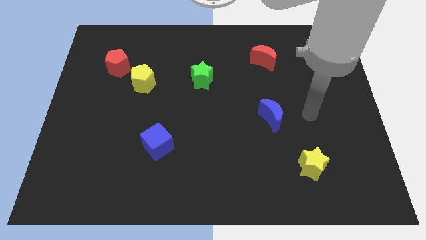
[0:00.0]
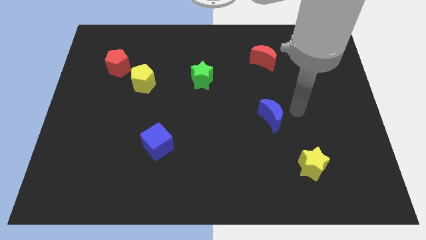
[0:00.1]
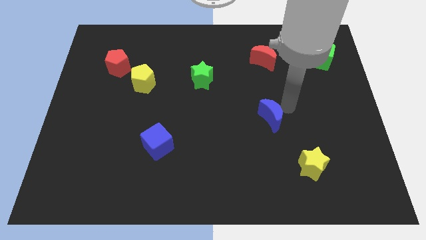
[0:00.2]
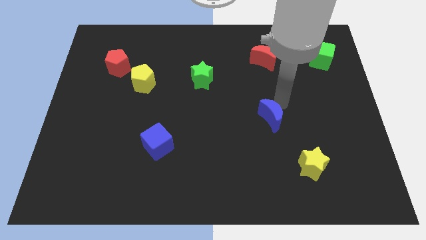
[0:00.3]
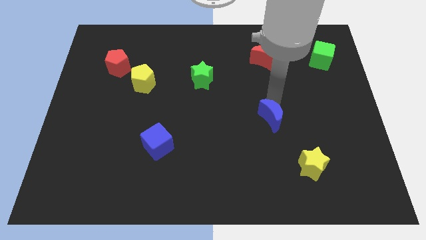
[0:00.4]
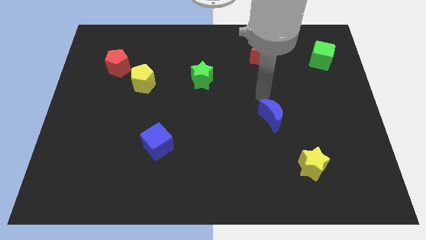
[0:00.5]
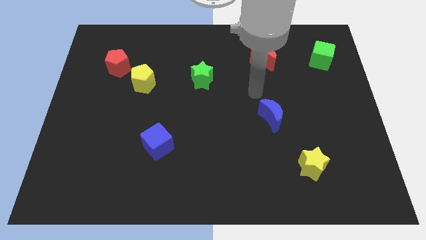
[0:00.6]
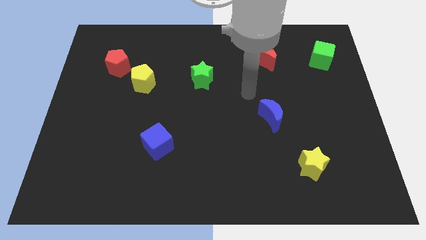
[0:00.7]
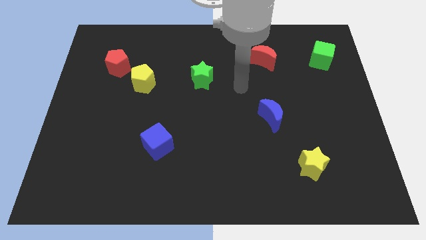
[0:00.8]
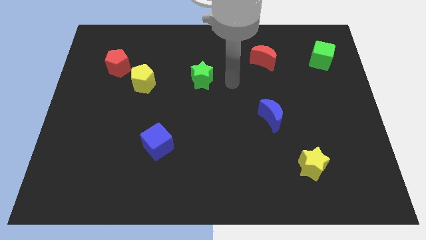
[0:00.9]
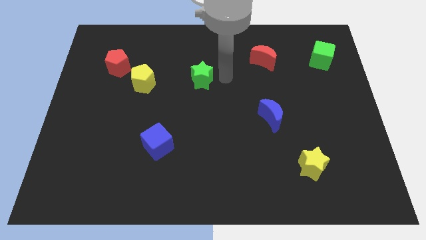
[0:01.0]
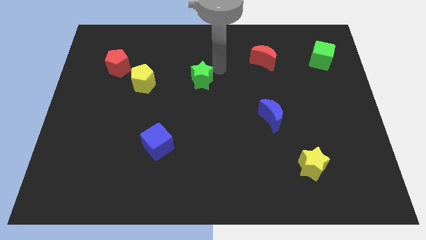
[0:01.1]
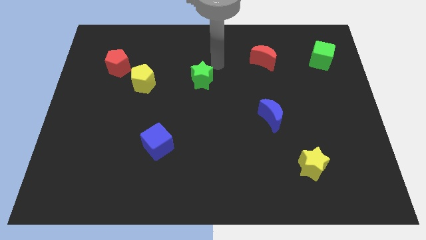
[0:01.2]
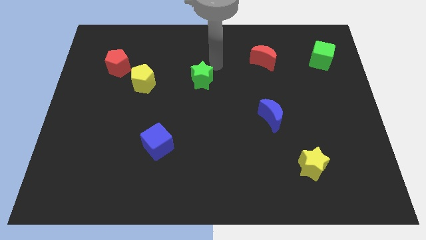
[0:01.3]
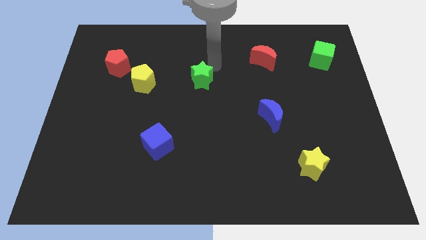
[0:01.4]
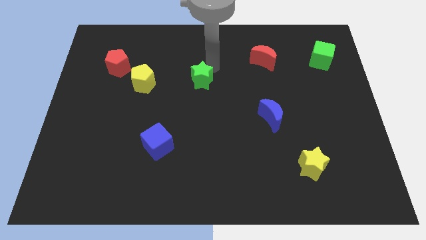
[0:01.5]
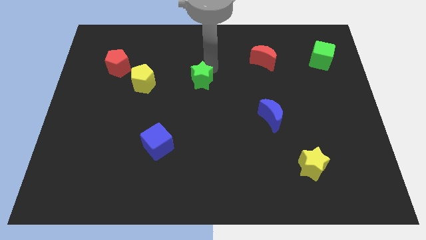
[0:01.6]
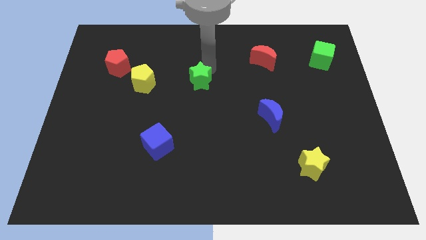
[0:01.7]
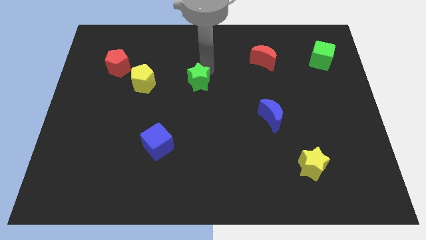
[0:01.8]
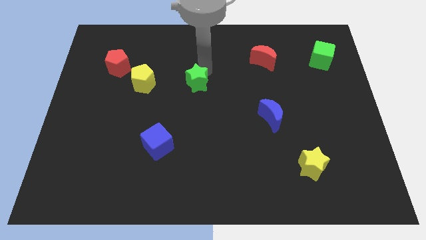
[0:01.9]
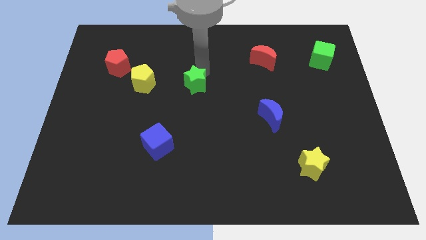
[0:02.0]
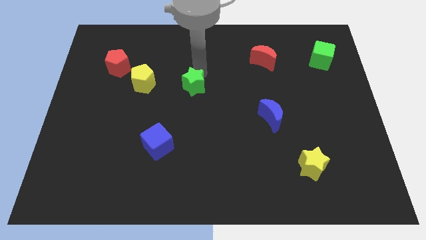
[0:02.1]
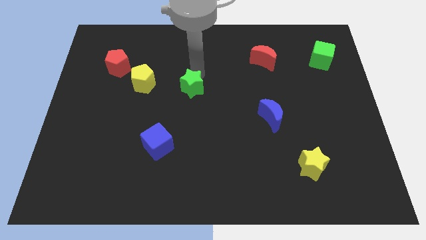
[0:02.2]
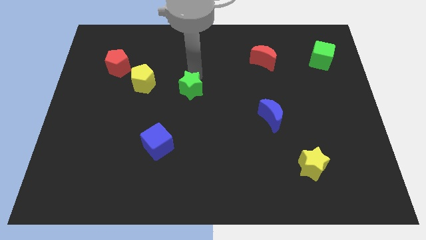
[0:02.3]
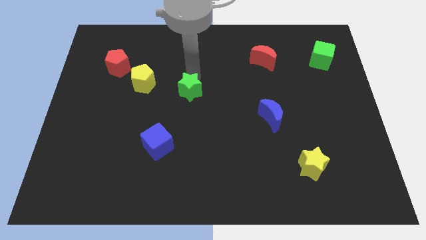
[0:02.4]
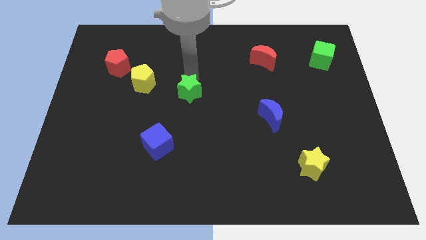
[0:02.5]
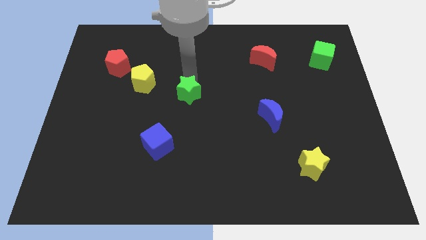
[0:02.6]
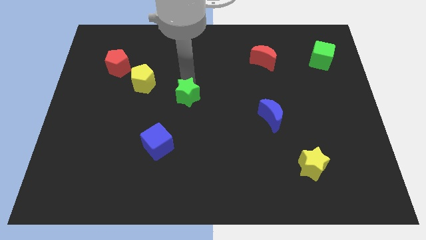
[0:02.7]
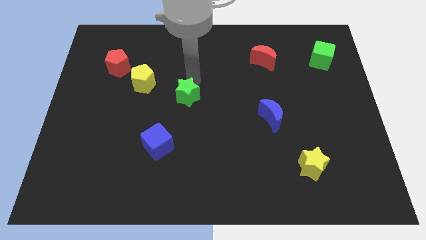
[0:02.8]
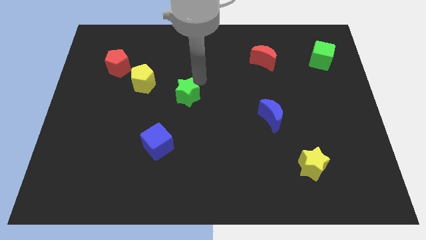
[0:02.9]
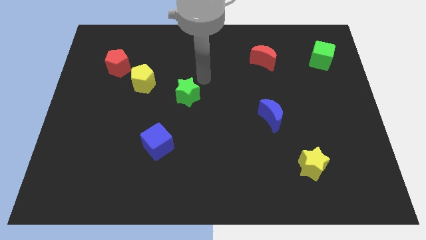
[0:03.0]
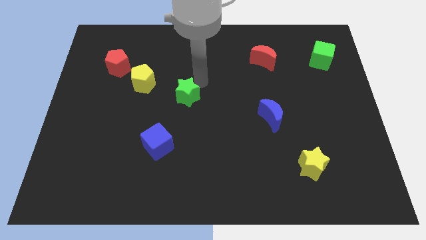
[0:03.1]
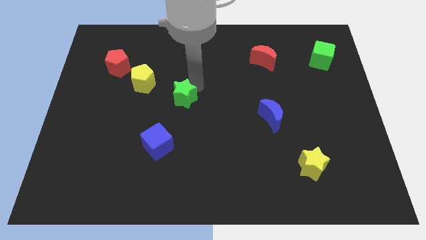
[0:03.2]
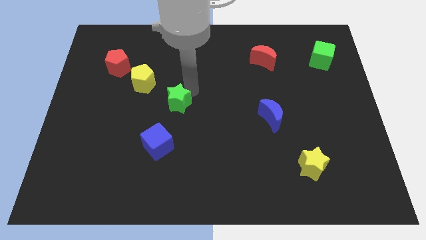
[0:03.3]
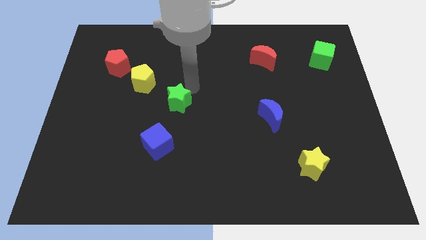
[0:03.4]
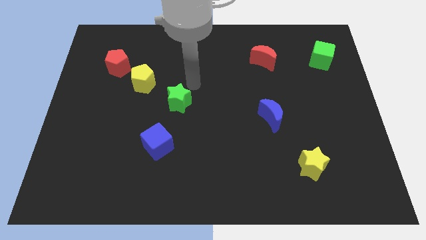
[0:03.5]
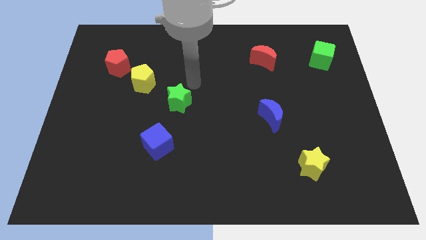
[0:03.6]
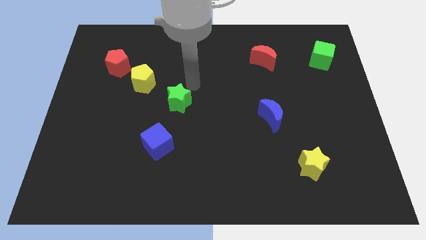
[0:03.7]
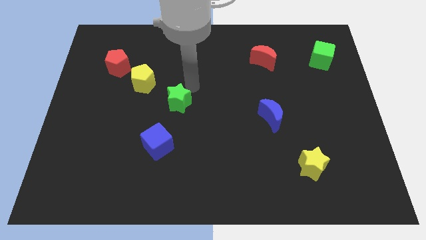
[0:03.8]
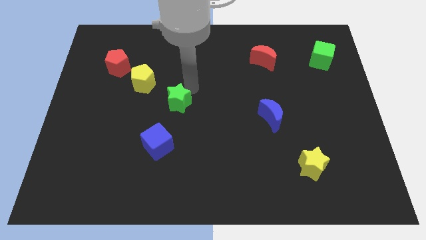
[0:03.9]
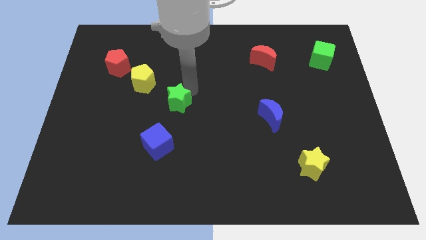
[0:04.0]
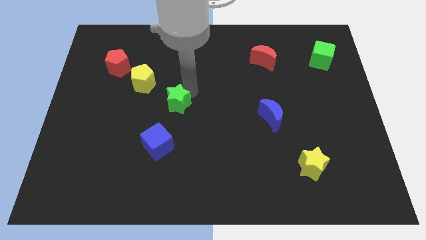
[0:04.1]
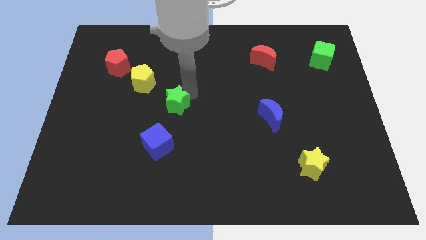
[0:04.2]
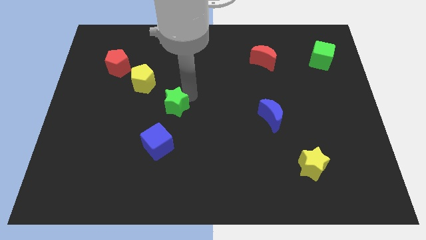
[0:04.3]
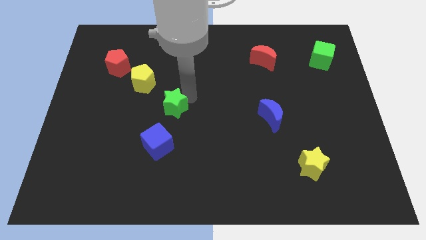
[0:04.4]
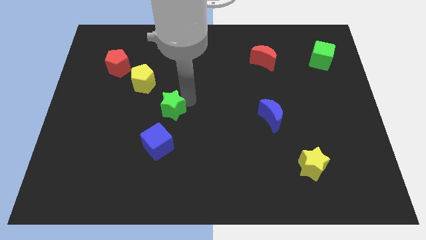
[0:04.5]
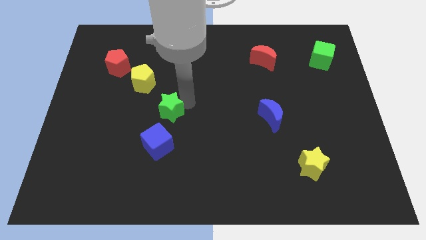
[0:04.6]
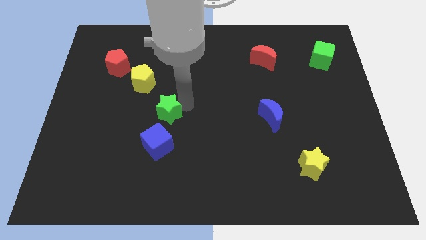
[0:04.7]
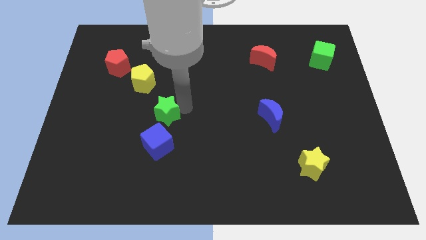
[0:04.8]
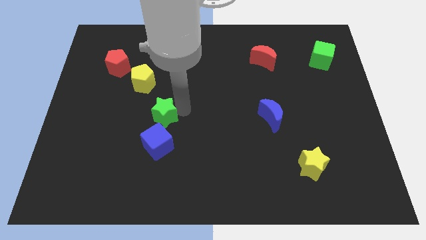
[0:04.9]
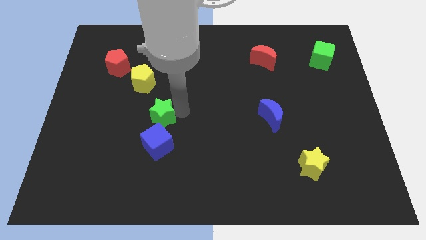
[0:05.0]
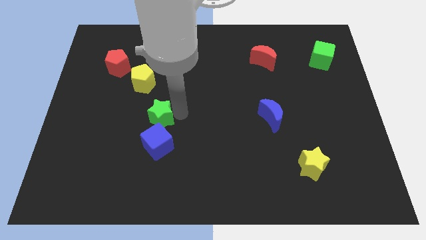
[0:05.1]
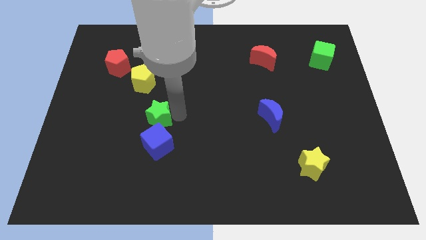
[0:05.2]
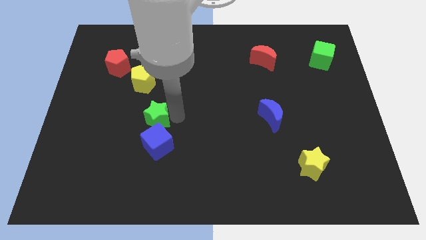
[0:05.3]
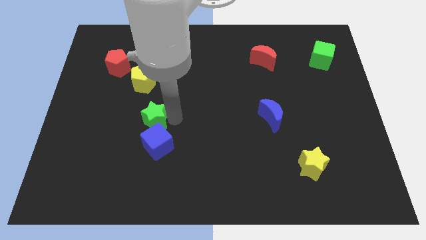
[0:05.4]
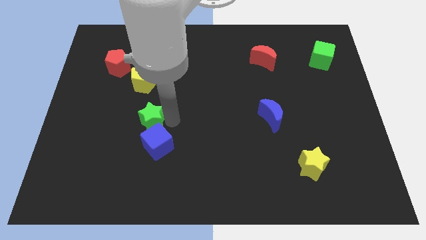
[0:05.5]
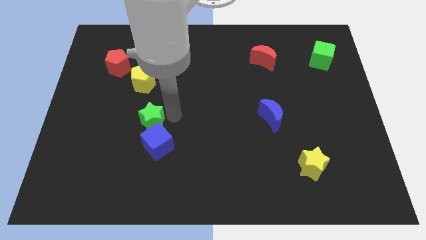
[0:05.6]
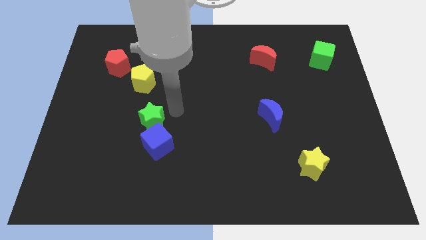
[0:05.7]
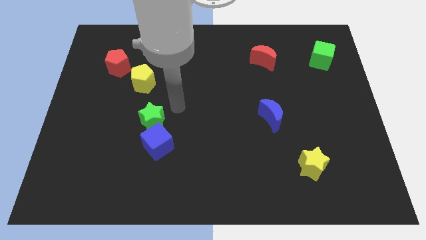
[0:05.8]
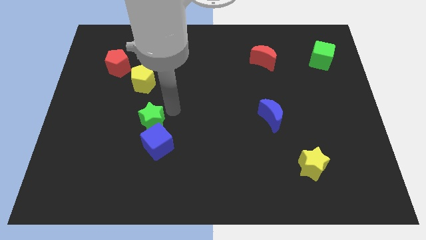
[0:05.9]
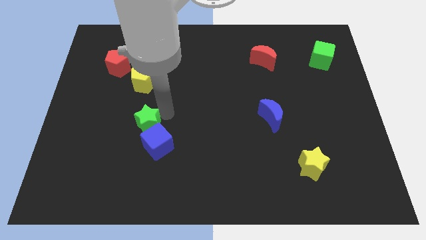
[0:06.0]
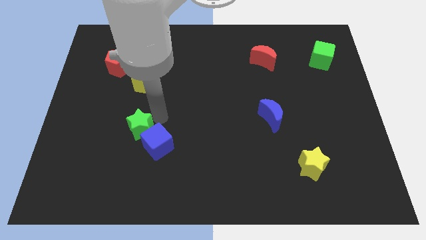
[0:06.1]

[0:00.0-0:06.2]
move the green star down and then to the left

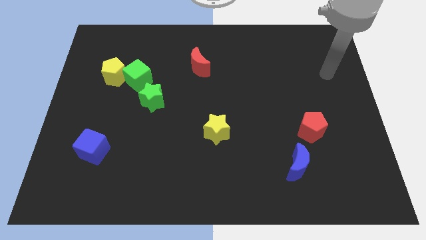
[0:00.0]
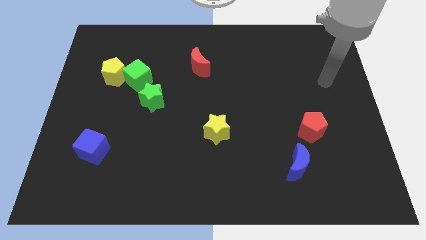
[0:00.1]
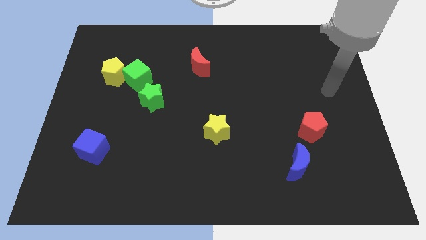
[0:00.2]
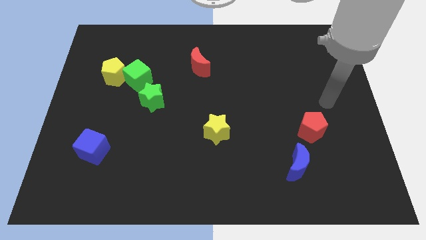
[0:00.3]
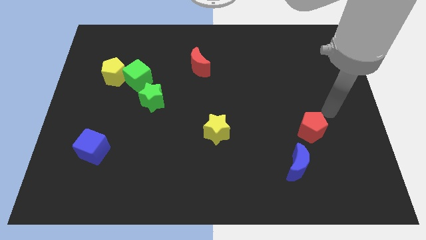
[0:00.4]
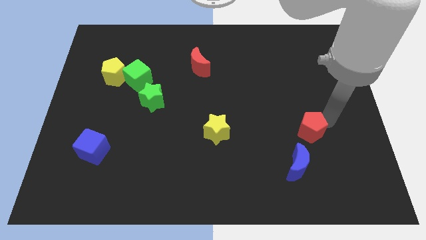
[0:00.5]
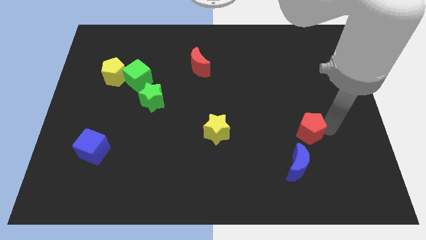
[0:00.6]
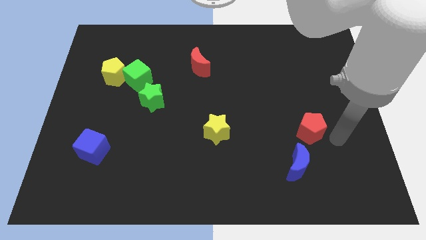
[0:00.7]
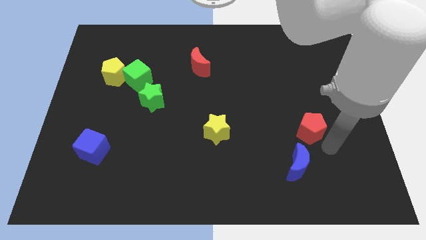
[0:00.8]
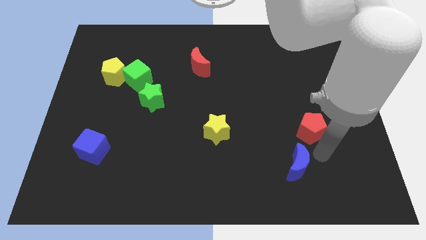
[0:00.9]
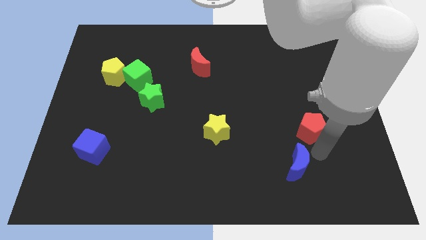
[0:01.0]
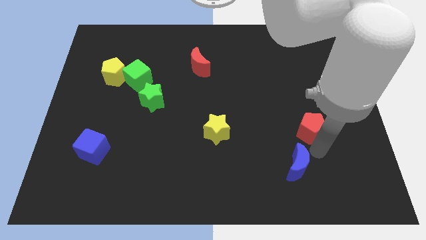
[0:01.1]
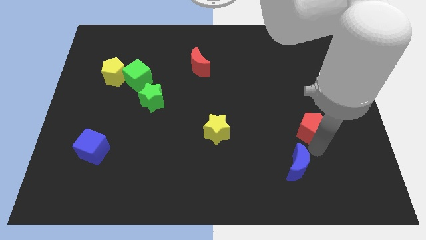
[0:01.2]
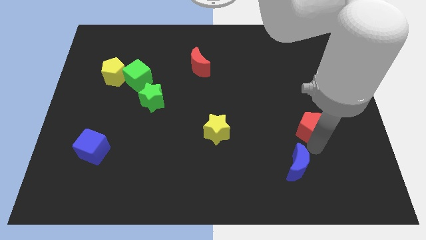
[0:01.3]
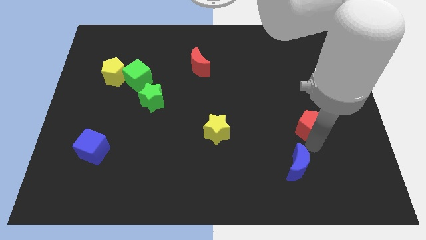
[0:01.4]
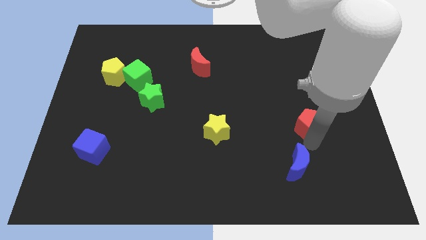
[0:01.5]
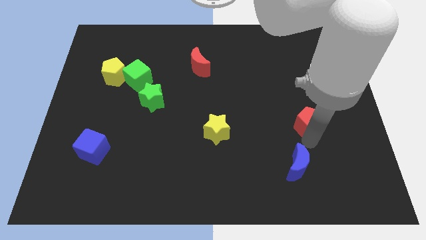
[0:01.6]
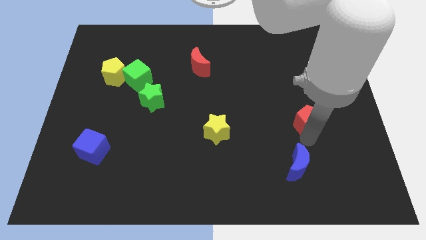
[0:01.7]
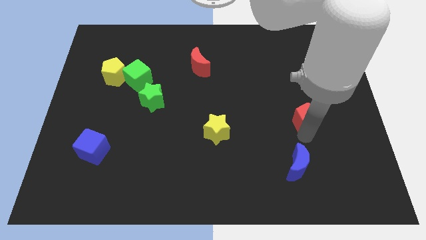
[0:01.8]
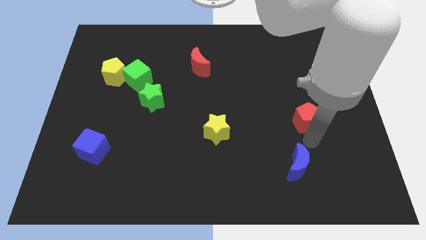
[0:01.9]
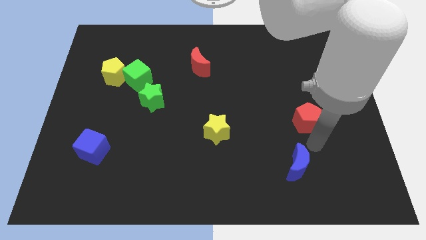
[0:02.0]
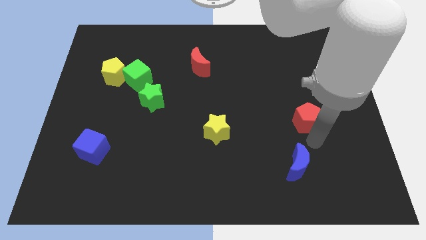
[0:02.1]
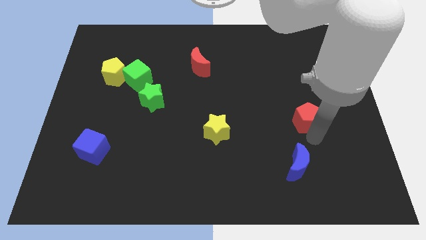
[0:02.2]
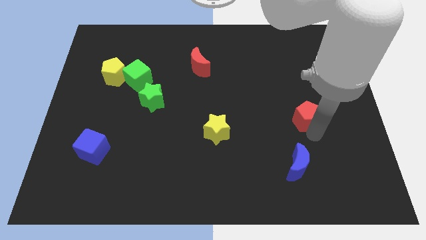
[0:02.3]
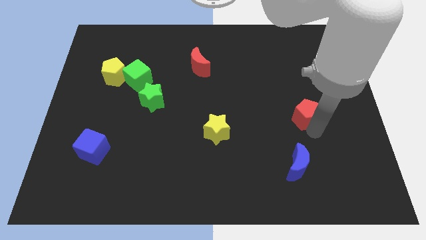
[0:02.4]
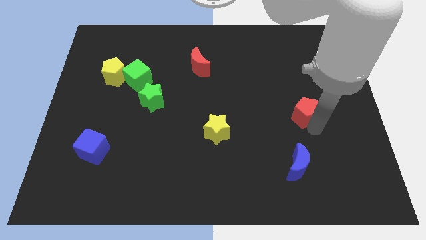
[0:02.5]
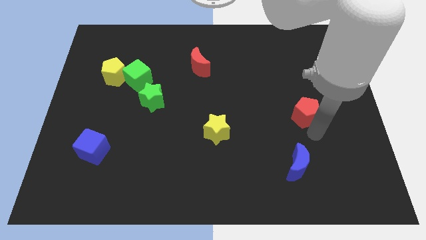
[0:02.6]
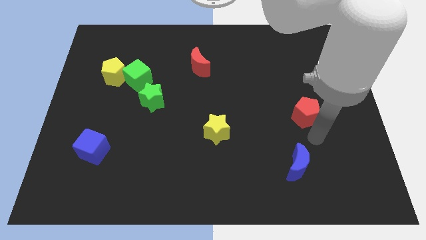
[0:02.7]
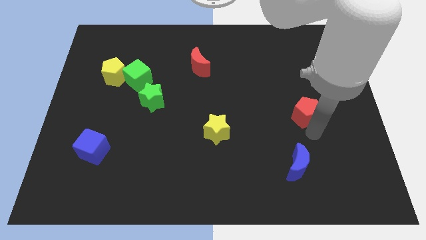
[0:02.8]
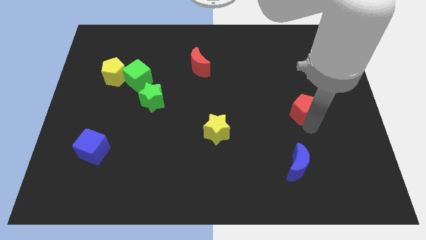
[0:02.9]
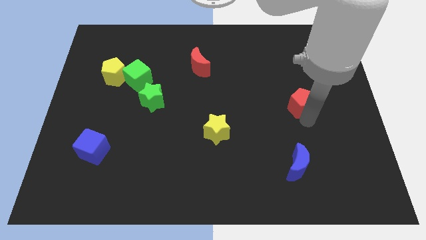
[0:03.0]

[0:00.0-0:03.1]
push the red pentagon upwards a little bit
